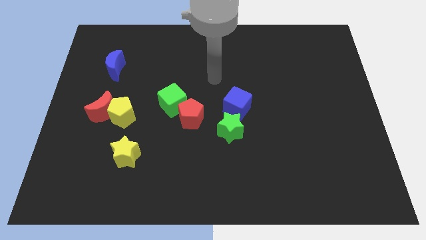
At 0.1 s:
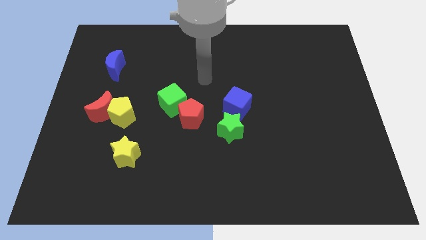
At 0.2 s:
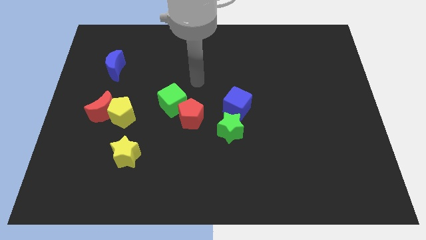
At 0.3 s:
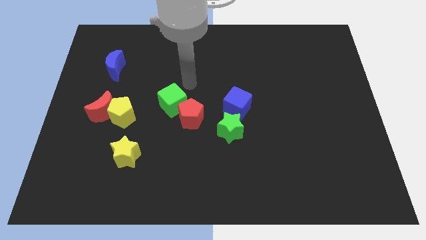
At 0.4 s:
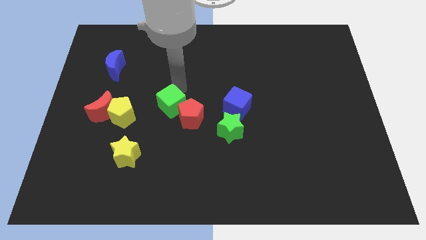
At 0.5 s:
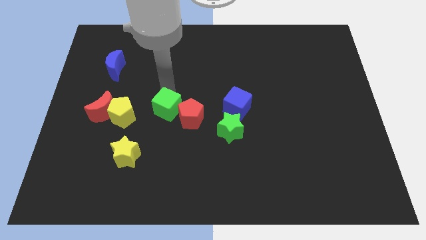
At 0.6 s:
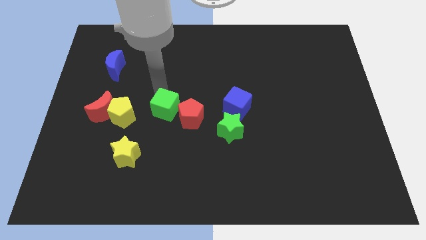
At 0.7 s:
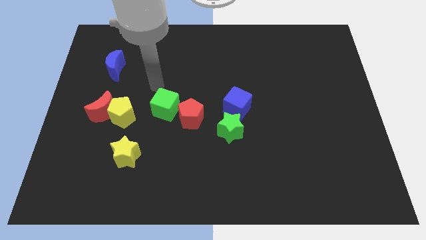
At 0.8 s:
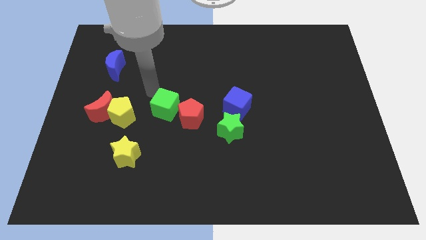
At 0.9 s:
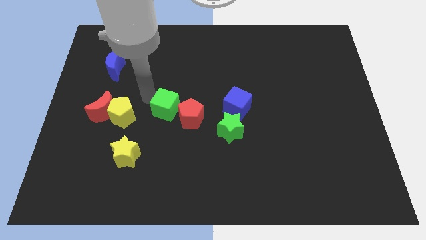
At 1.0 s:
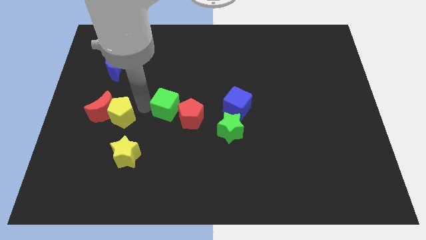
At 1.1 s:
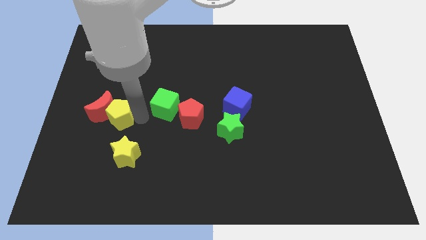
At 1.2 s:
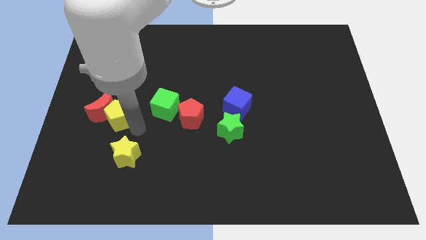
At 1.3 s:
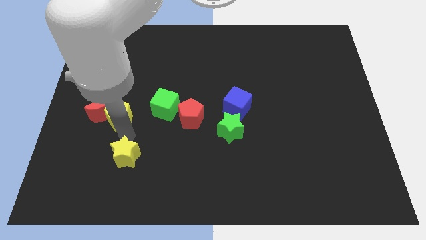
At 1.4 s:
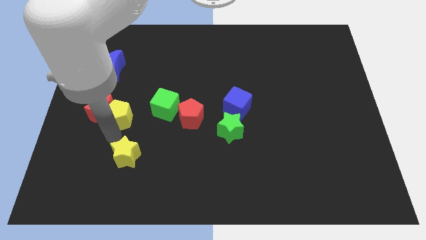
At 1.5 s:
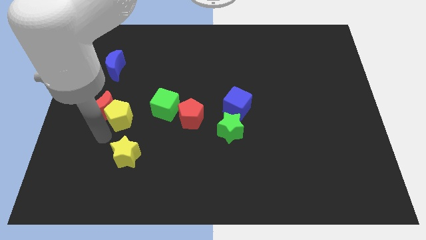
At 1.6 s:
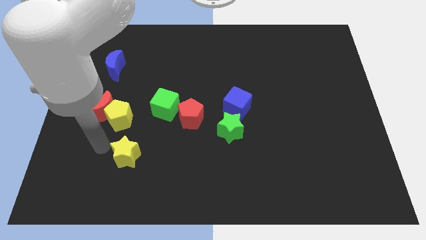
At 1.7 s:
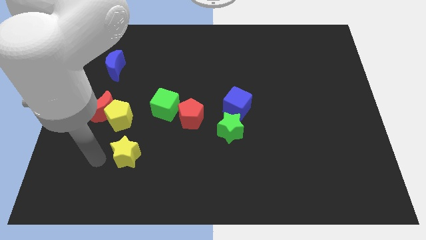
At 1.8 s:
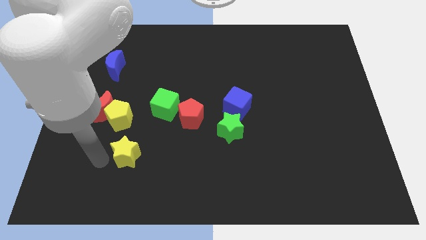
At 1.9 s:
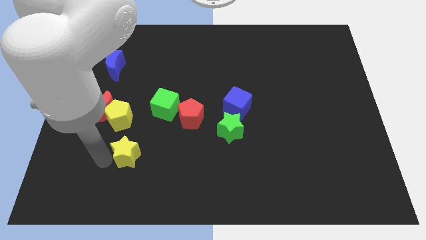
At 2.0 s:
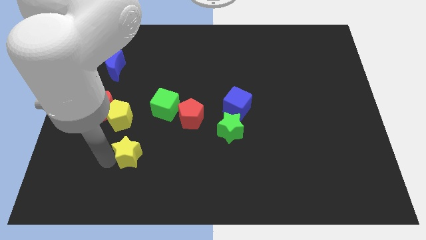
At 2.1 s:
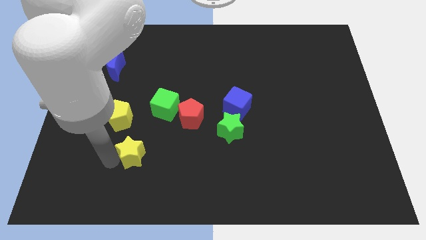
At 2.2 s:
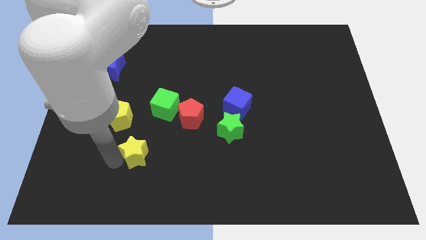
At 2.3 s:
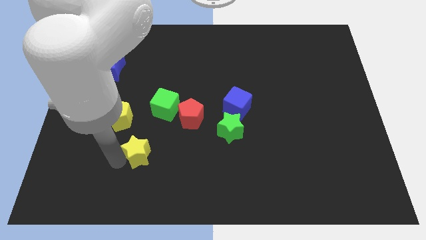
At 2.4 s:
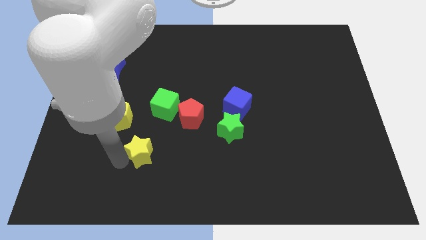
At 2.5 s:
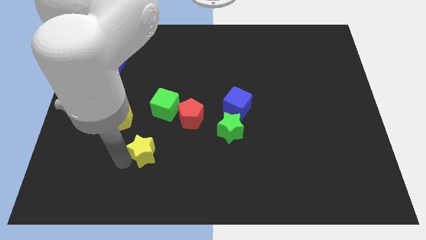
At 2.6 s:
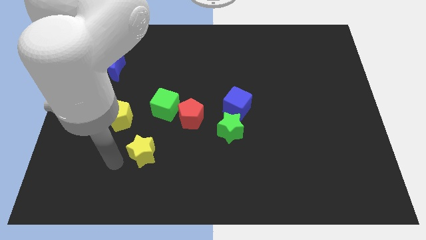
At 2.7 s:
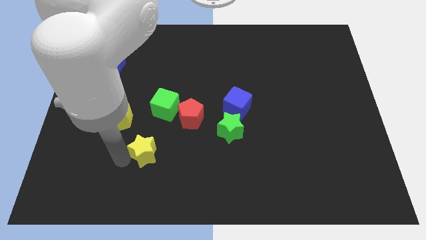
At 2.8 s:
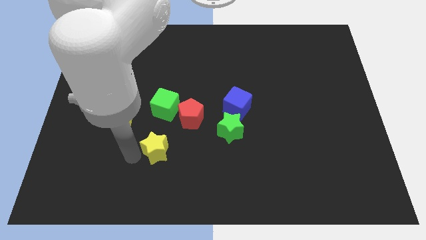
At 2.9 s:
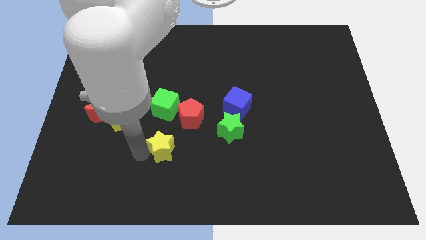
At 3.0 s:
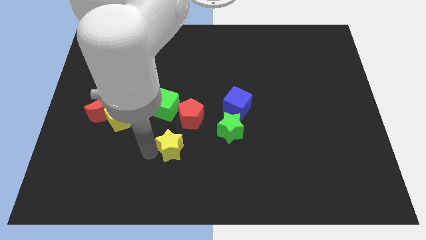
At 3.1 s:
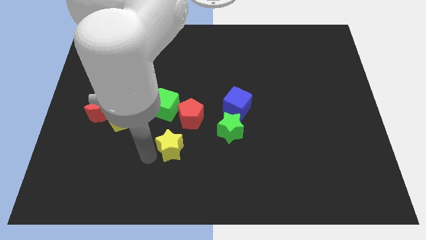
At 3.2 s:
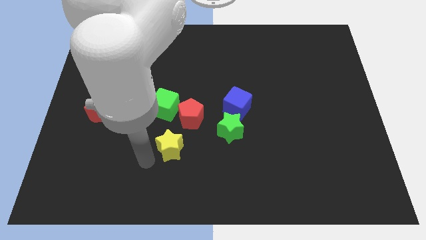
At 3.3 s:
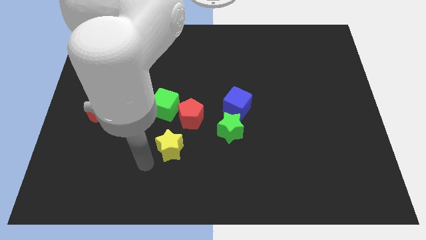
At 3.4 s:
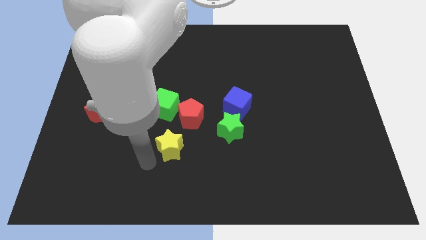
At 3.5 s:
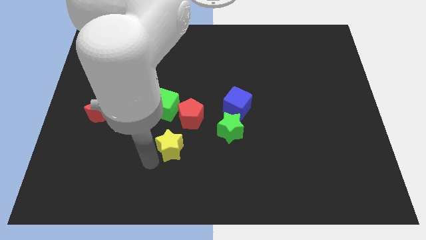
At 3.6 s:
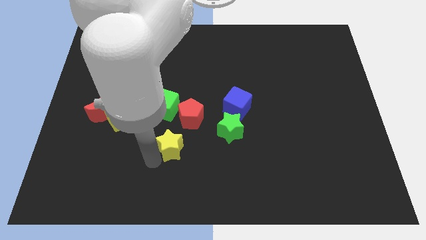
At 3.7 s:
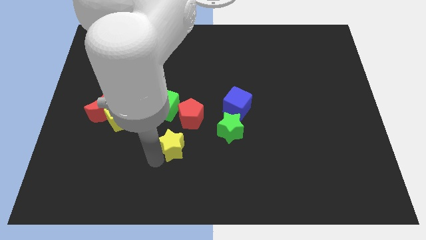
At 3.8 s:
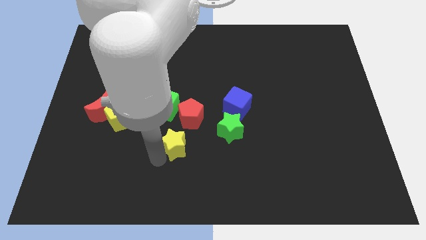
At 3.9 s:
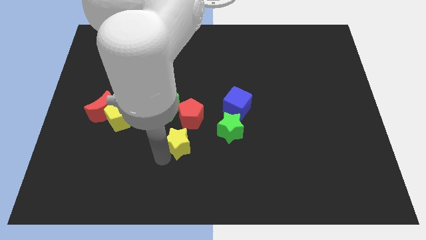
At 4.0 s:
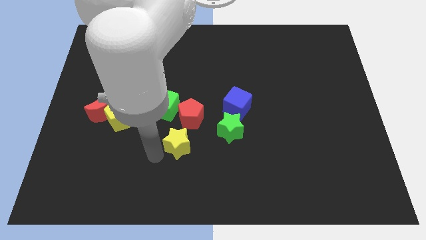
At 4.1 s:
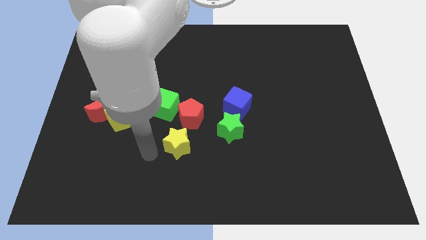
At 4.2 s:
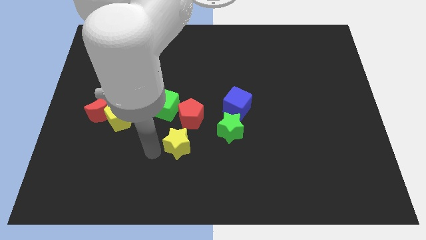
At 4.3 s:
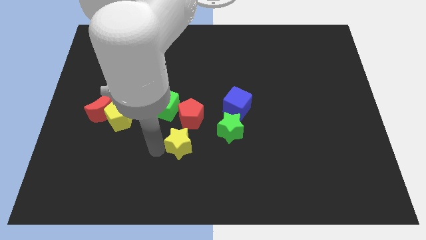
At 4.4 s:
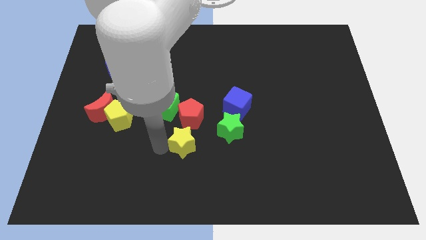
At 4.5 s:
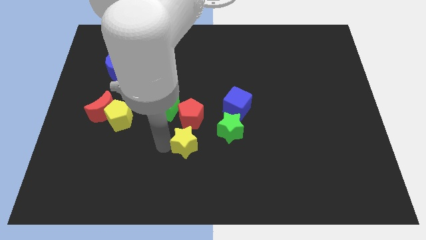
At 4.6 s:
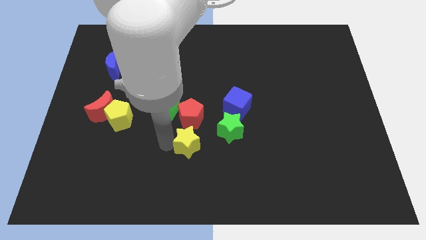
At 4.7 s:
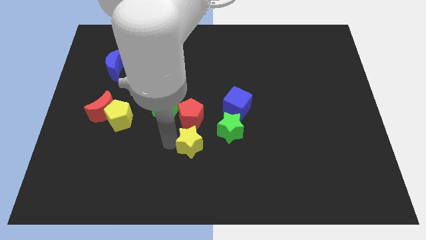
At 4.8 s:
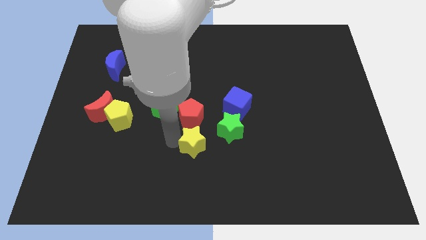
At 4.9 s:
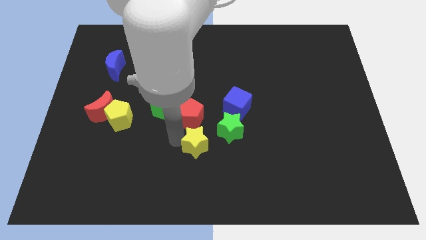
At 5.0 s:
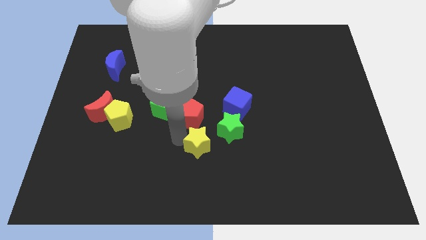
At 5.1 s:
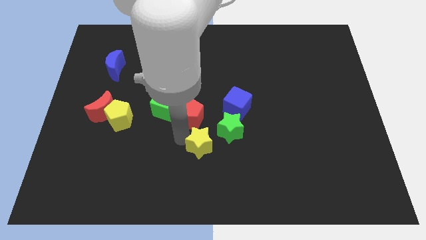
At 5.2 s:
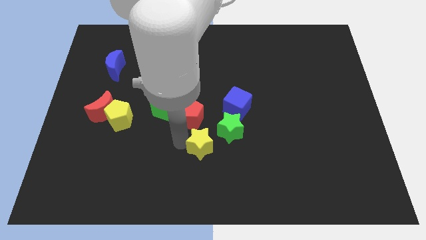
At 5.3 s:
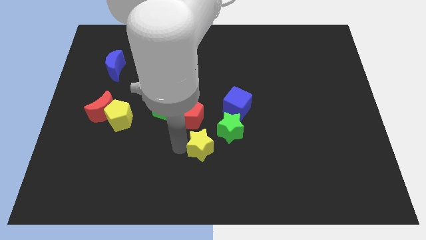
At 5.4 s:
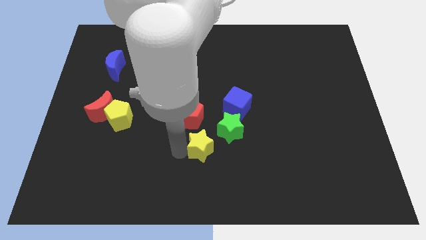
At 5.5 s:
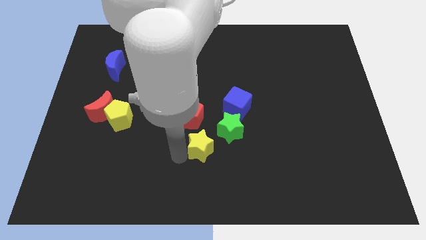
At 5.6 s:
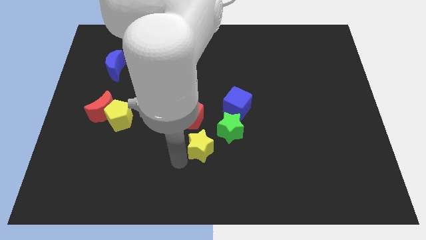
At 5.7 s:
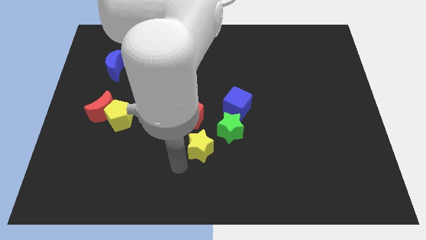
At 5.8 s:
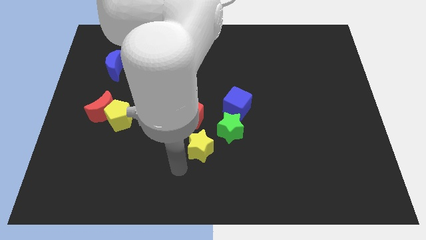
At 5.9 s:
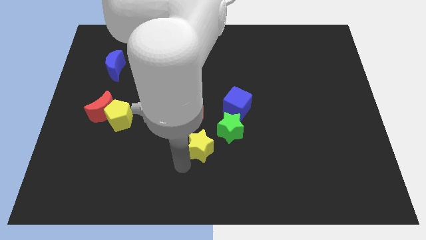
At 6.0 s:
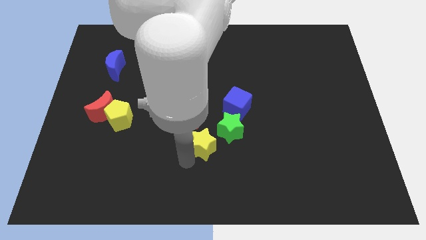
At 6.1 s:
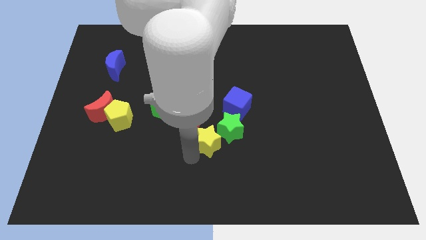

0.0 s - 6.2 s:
push the yellow star to the green star

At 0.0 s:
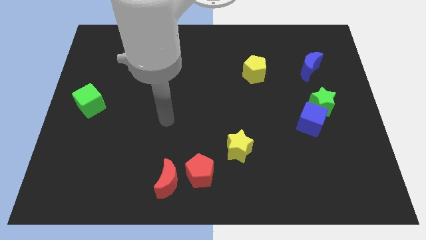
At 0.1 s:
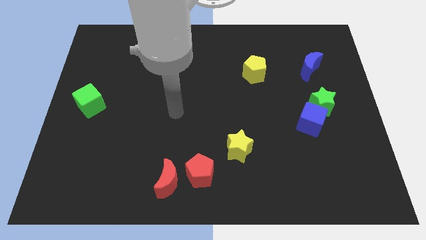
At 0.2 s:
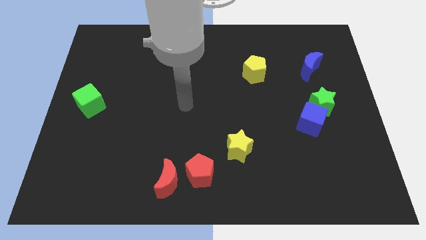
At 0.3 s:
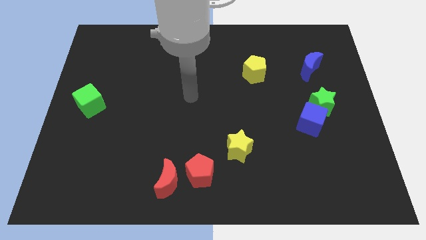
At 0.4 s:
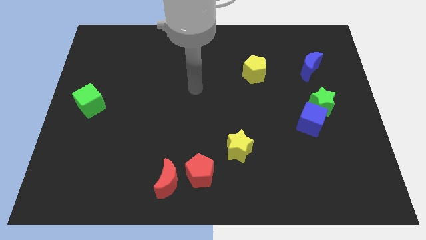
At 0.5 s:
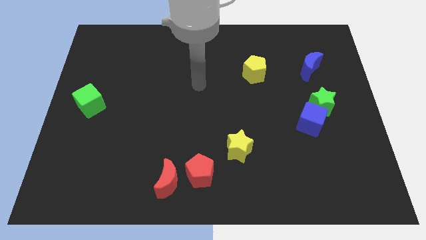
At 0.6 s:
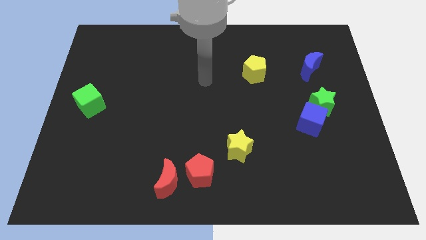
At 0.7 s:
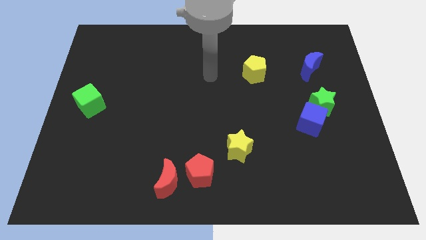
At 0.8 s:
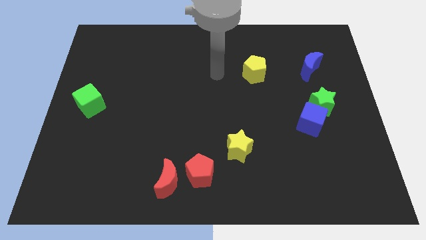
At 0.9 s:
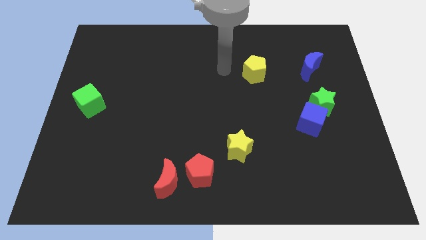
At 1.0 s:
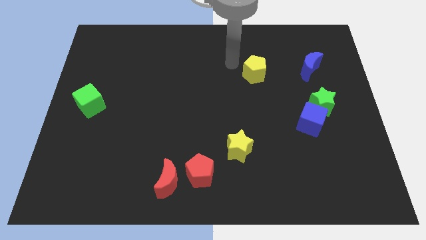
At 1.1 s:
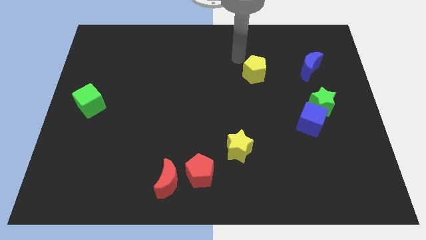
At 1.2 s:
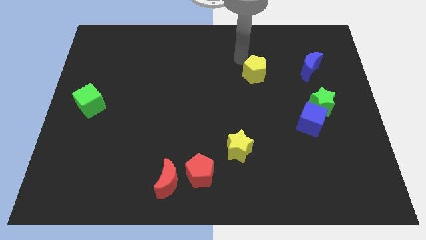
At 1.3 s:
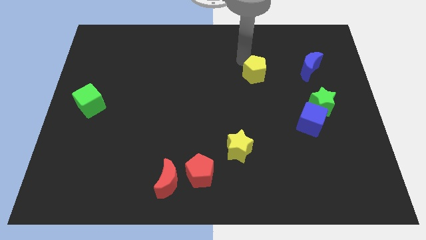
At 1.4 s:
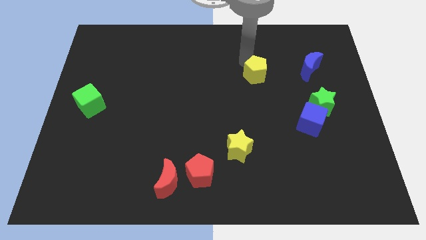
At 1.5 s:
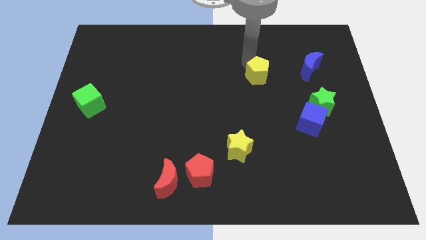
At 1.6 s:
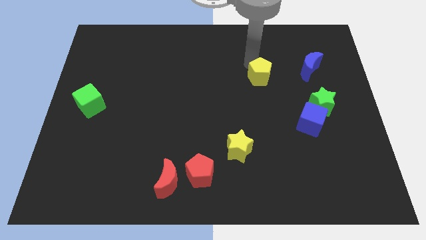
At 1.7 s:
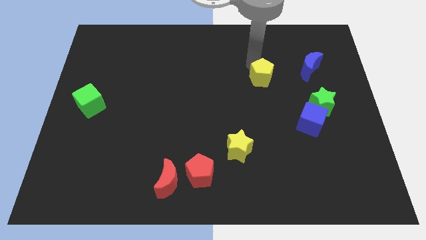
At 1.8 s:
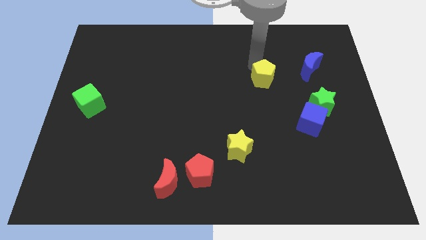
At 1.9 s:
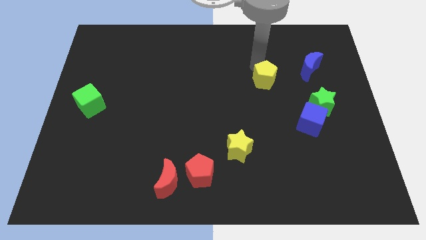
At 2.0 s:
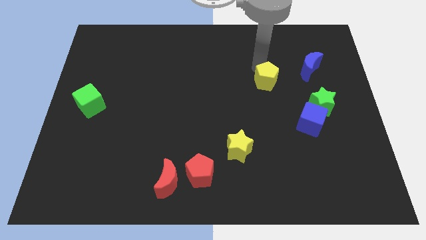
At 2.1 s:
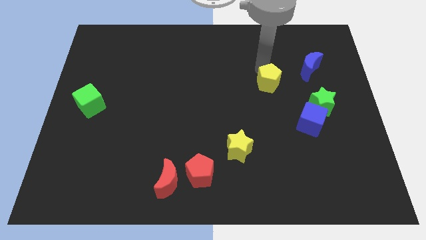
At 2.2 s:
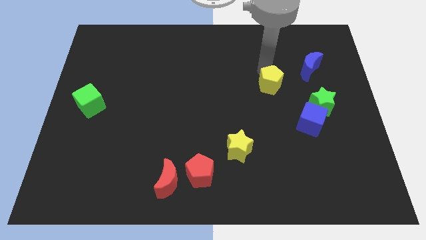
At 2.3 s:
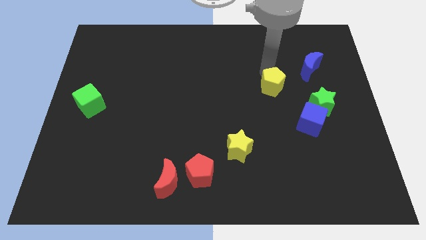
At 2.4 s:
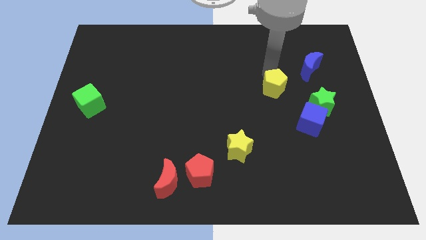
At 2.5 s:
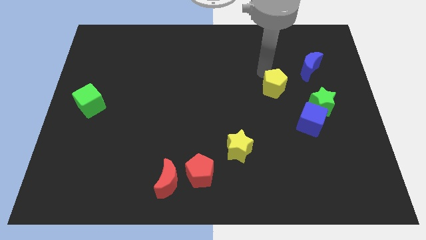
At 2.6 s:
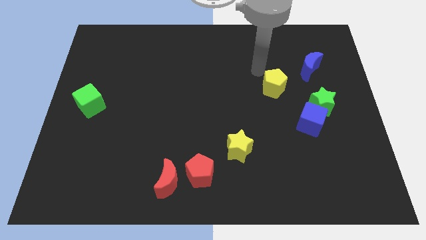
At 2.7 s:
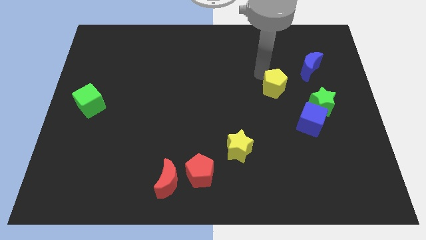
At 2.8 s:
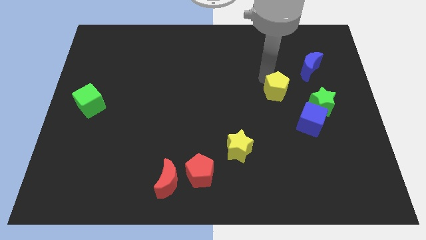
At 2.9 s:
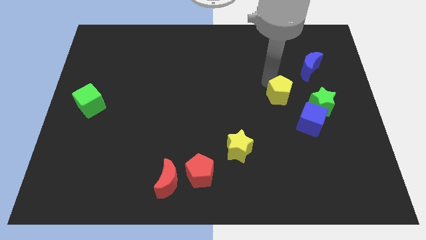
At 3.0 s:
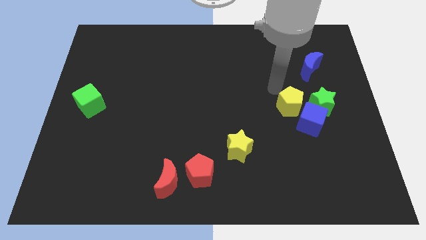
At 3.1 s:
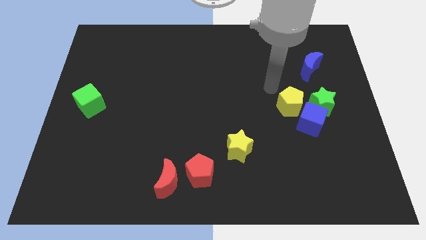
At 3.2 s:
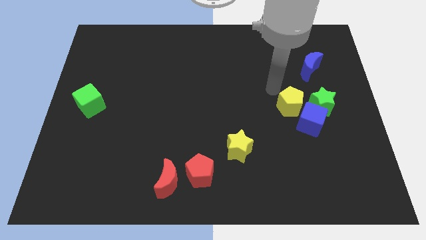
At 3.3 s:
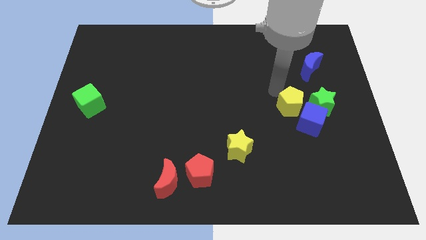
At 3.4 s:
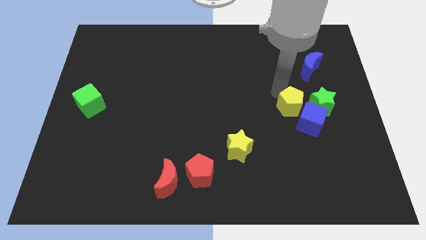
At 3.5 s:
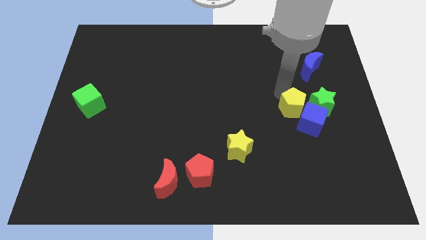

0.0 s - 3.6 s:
push the yellow pentagon close to the blue cube
